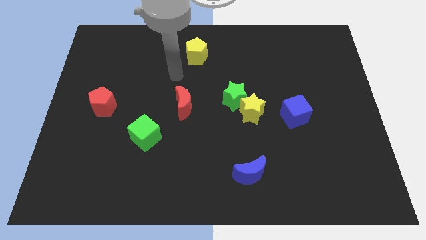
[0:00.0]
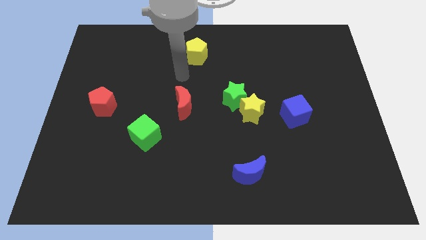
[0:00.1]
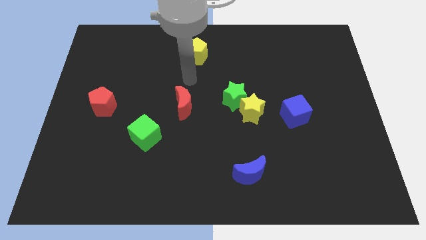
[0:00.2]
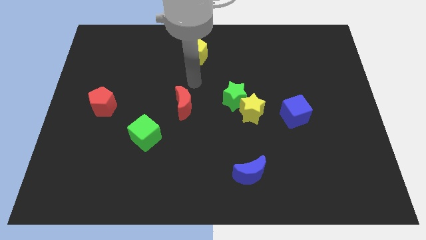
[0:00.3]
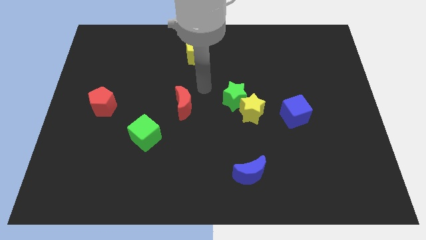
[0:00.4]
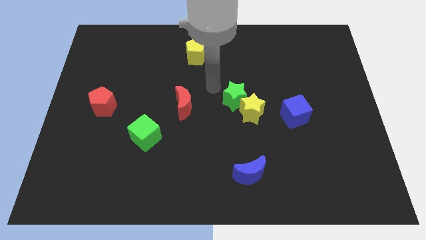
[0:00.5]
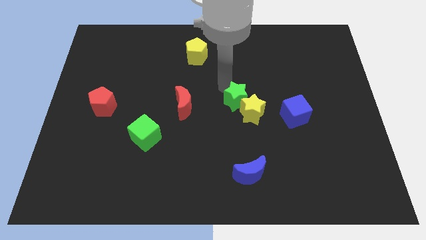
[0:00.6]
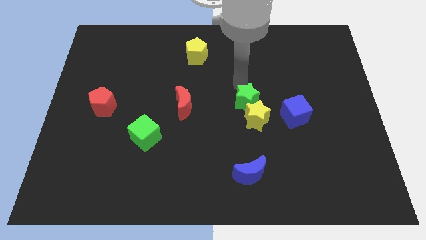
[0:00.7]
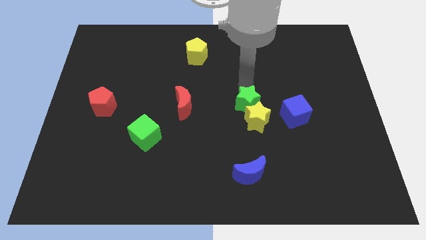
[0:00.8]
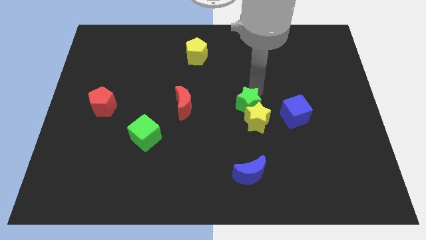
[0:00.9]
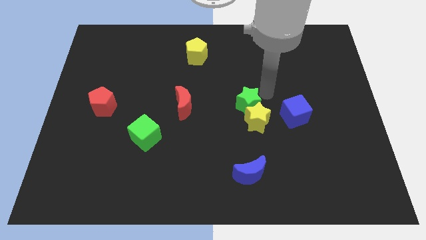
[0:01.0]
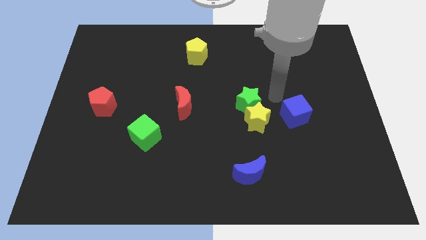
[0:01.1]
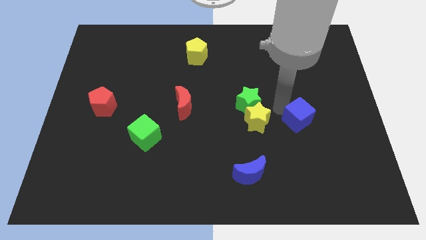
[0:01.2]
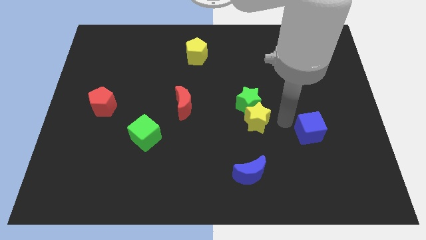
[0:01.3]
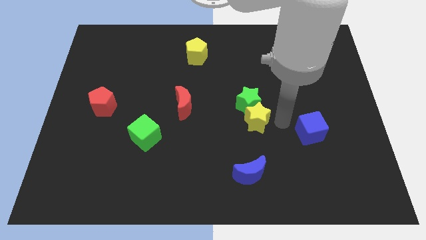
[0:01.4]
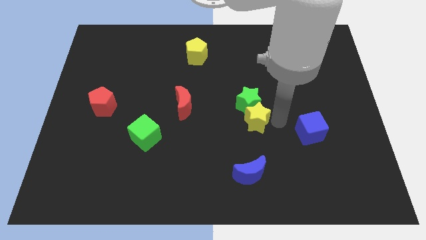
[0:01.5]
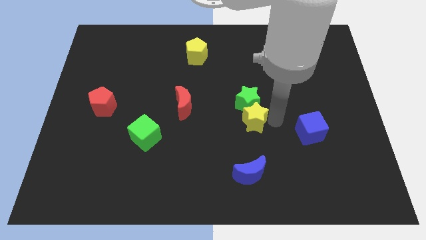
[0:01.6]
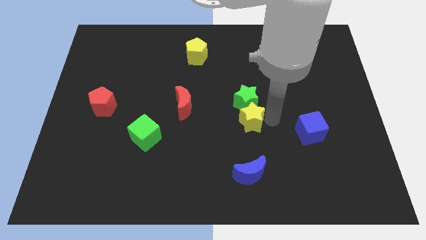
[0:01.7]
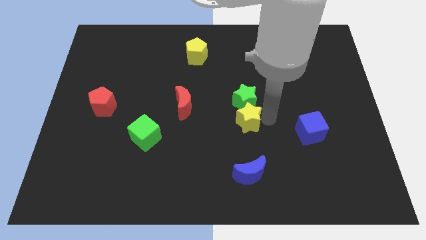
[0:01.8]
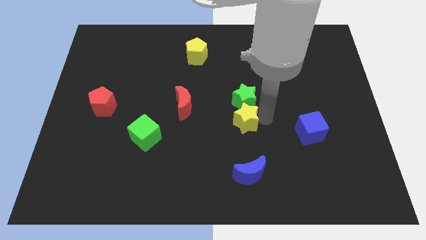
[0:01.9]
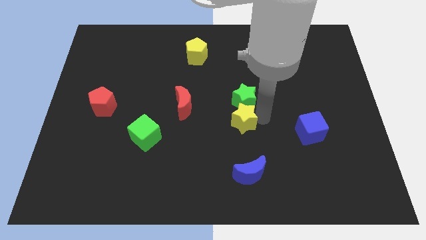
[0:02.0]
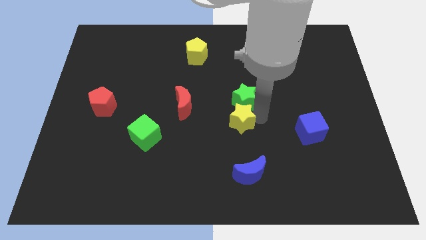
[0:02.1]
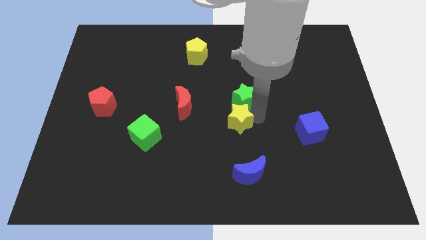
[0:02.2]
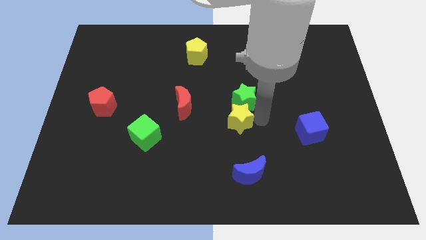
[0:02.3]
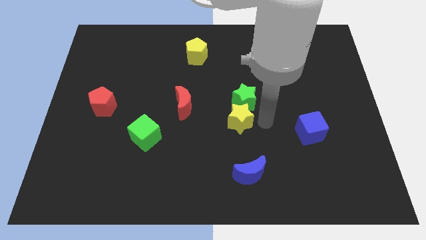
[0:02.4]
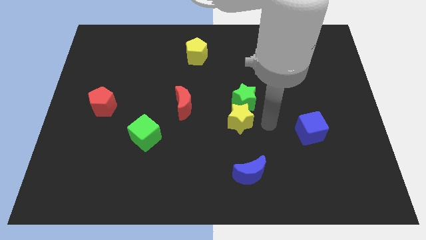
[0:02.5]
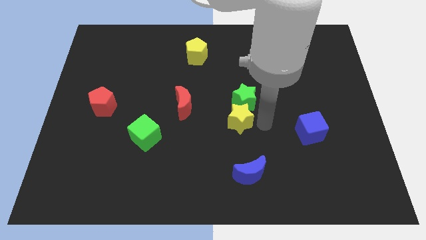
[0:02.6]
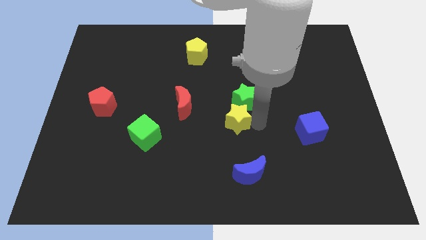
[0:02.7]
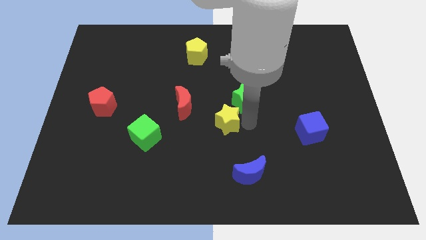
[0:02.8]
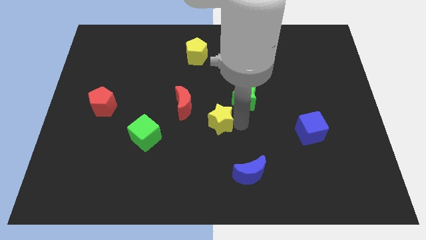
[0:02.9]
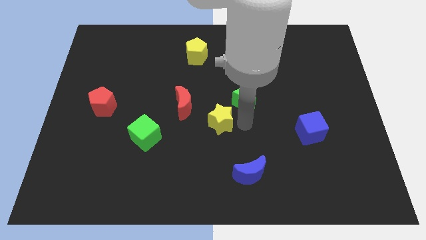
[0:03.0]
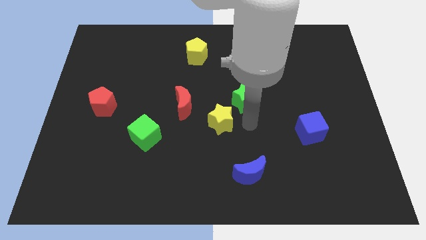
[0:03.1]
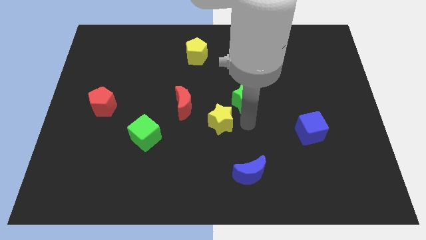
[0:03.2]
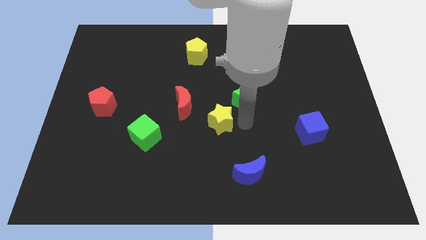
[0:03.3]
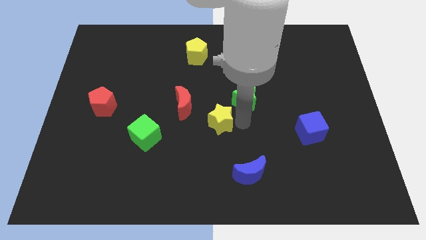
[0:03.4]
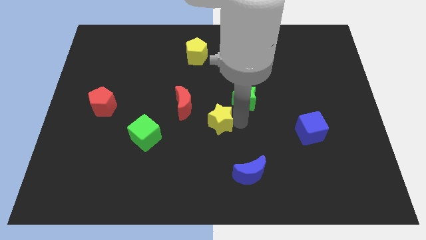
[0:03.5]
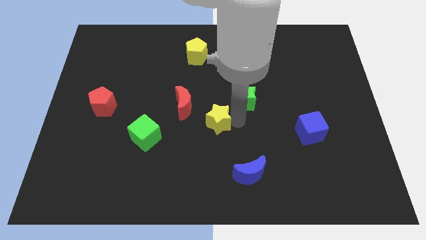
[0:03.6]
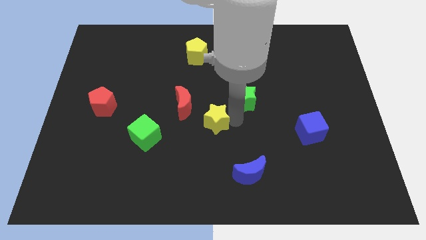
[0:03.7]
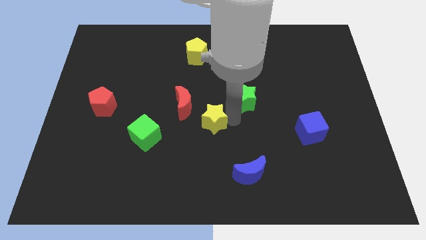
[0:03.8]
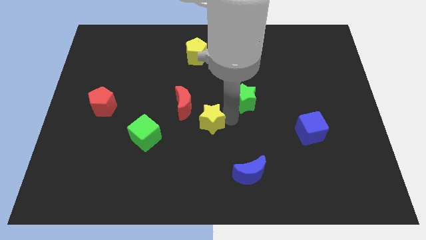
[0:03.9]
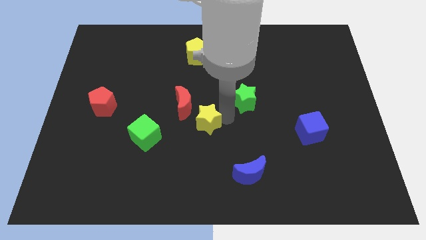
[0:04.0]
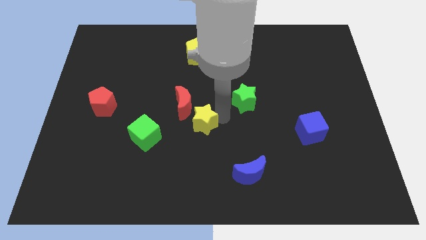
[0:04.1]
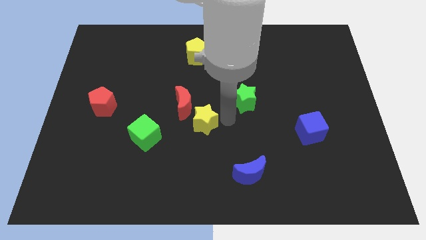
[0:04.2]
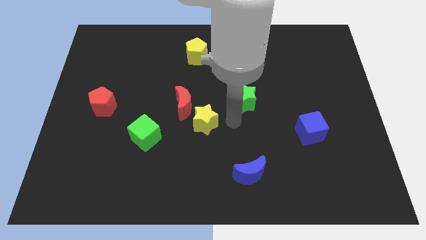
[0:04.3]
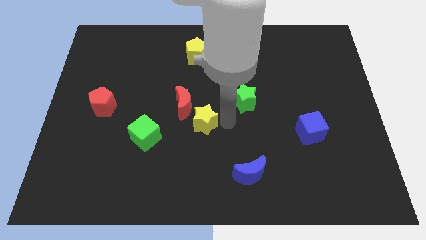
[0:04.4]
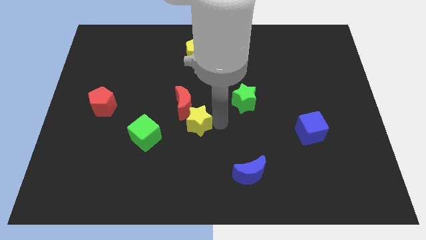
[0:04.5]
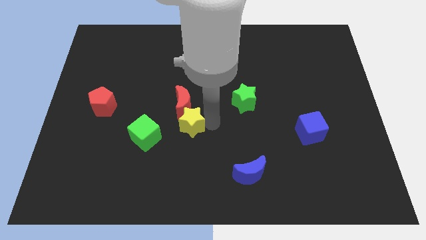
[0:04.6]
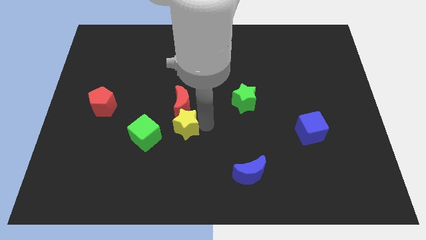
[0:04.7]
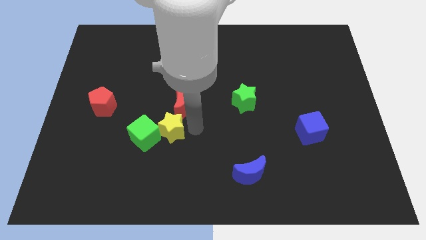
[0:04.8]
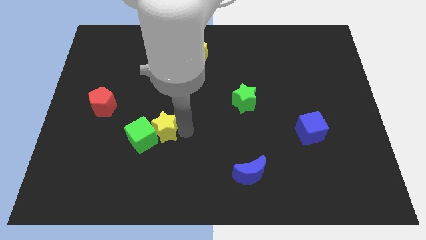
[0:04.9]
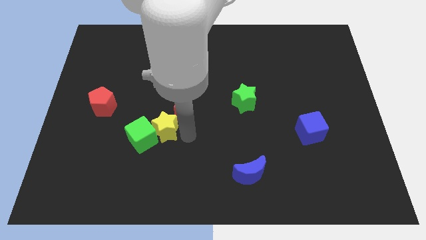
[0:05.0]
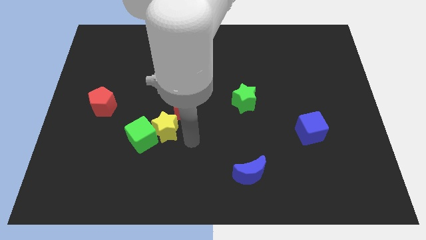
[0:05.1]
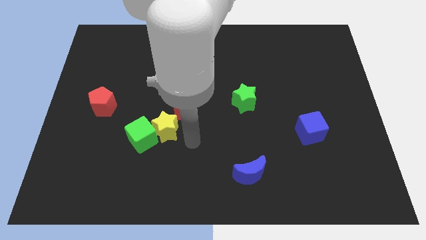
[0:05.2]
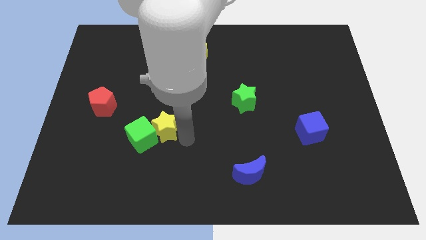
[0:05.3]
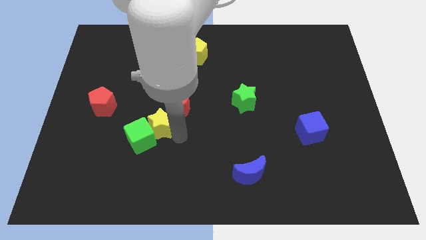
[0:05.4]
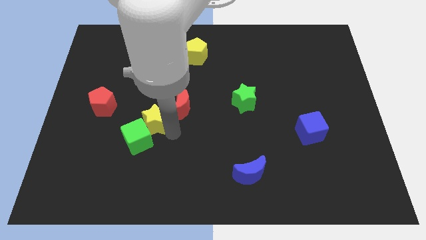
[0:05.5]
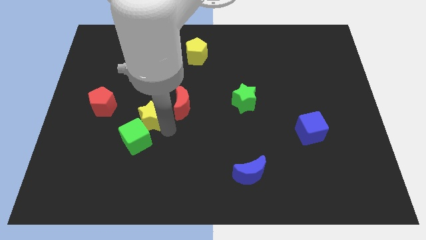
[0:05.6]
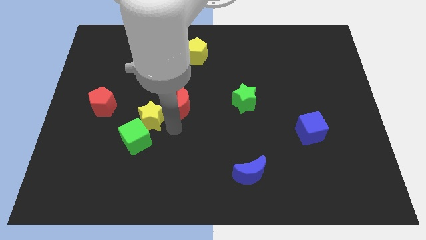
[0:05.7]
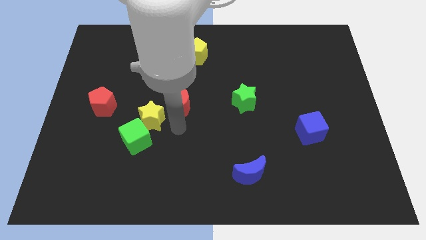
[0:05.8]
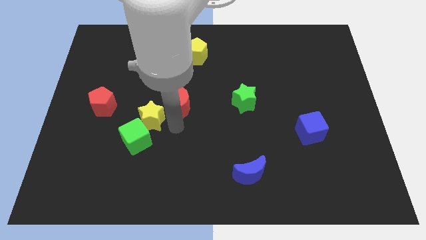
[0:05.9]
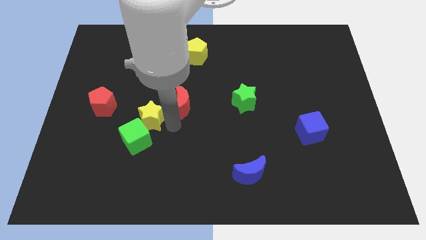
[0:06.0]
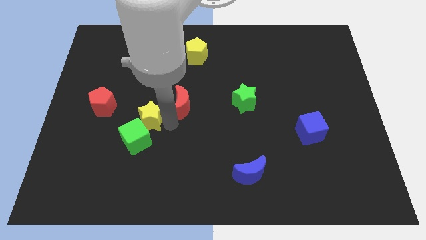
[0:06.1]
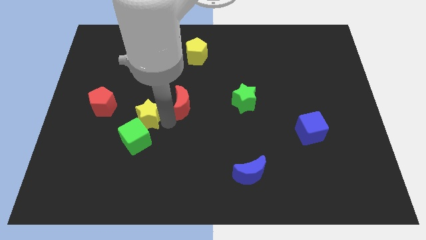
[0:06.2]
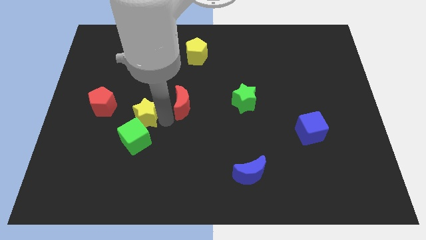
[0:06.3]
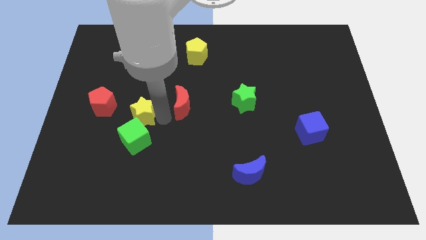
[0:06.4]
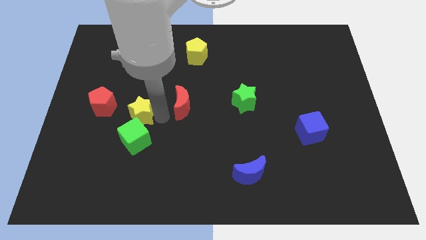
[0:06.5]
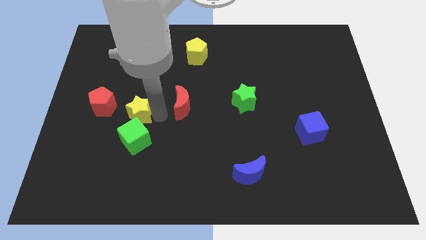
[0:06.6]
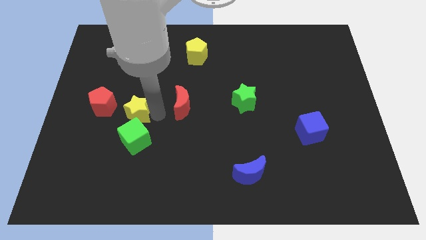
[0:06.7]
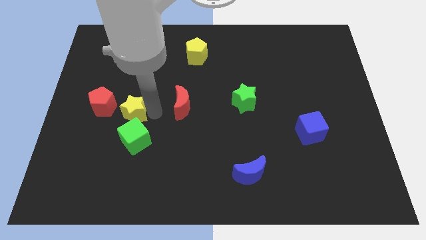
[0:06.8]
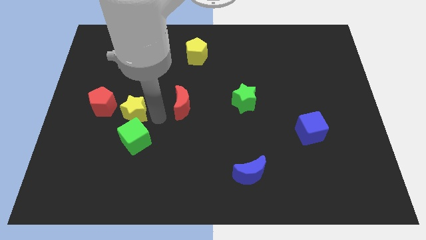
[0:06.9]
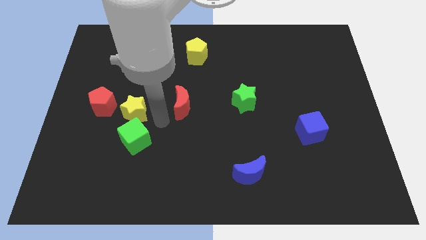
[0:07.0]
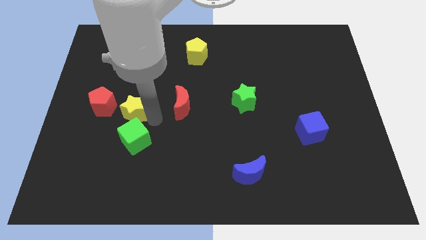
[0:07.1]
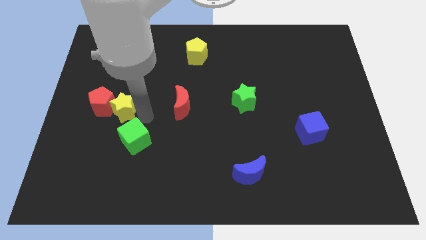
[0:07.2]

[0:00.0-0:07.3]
push the yellow star to the red pentagon
